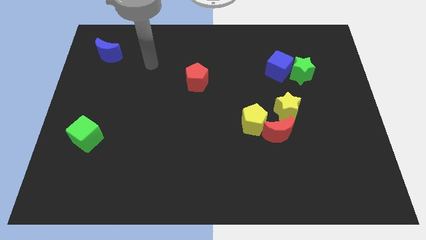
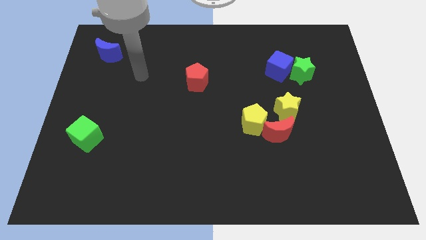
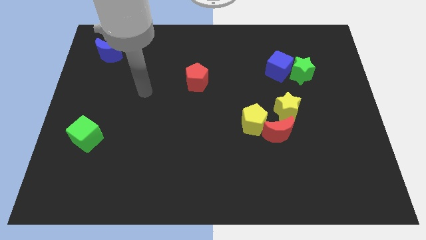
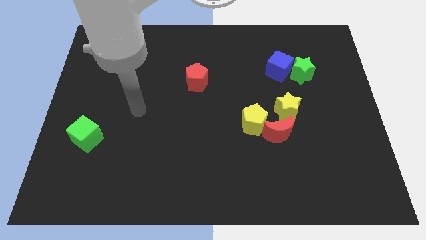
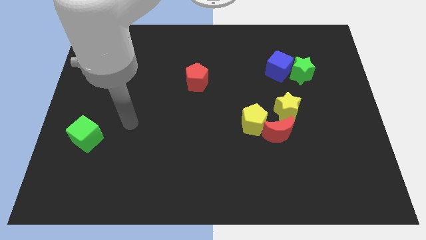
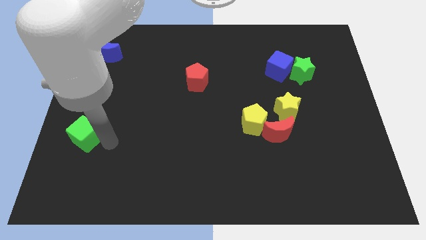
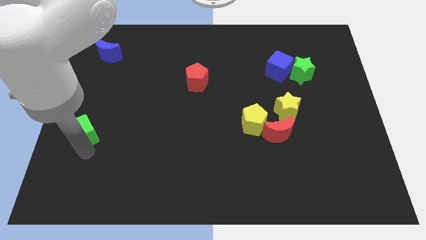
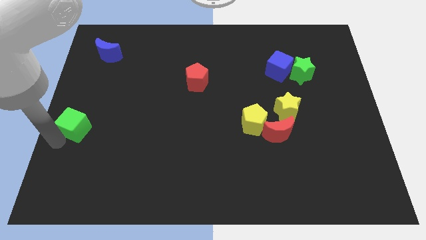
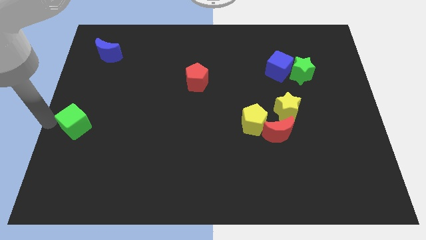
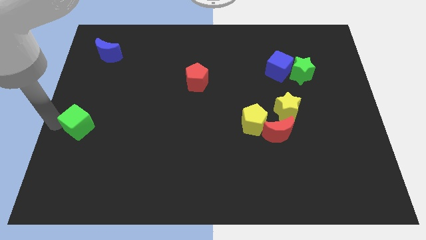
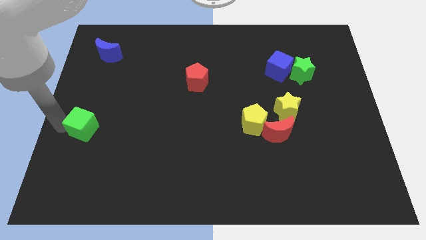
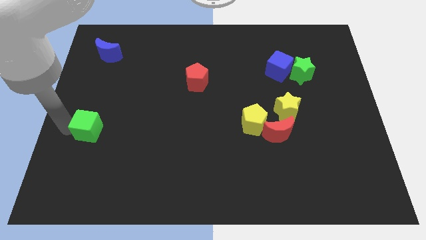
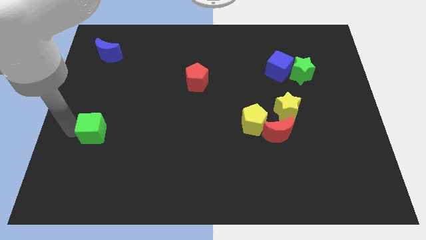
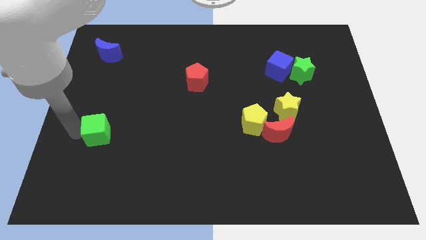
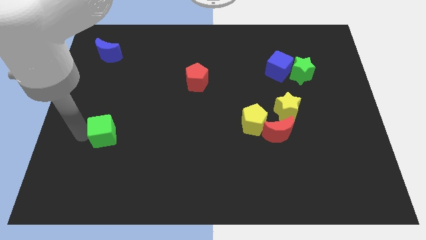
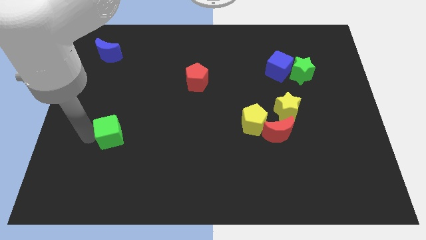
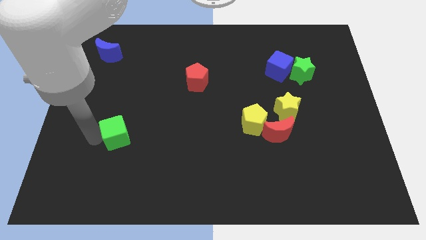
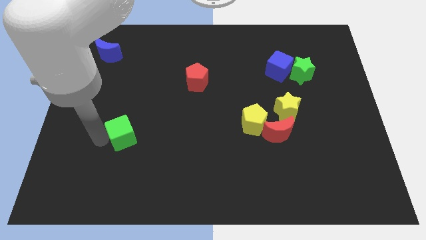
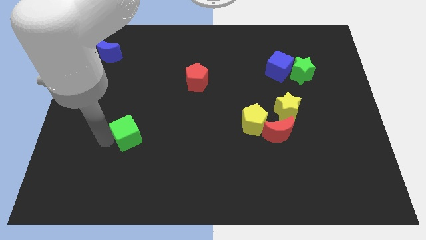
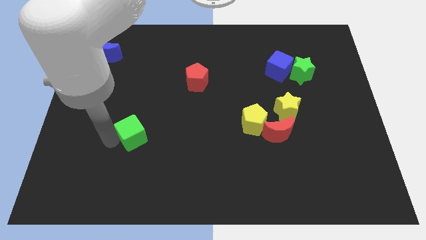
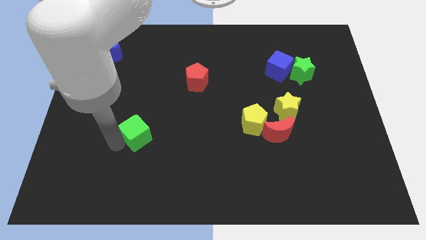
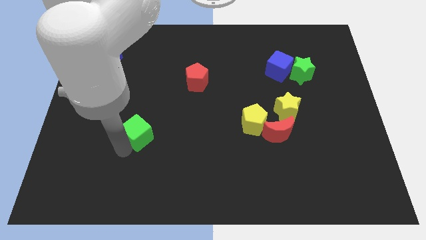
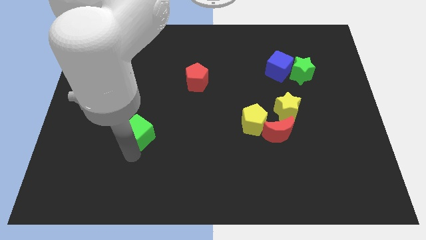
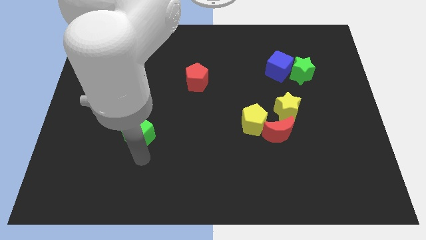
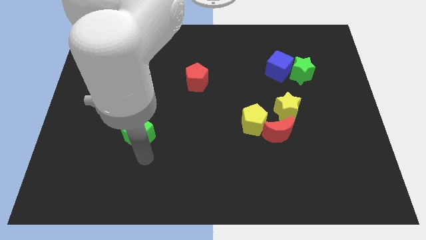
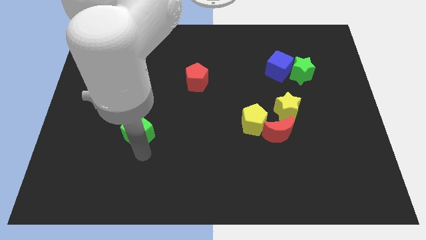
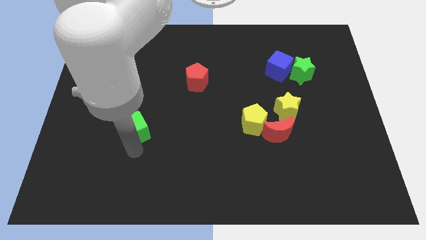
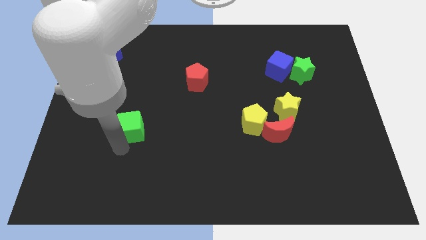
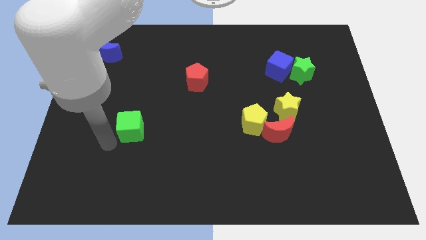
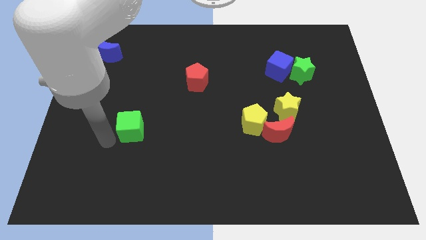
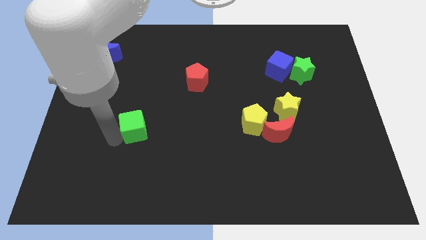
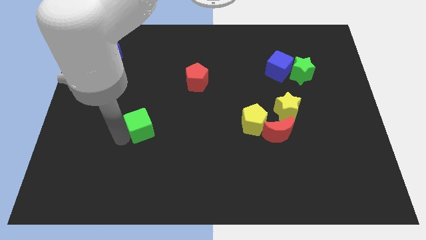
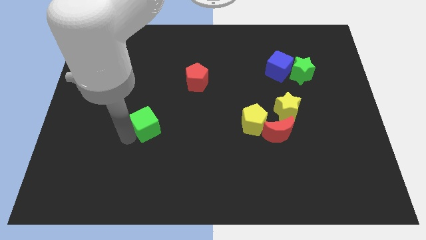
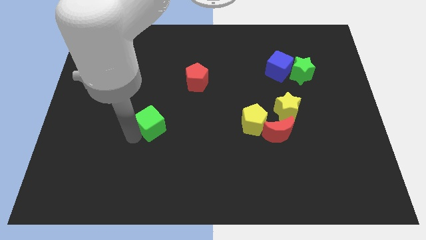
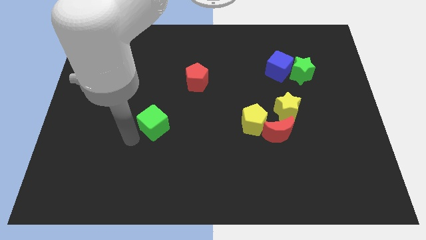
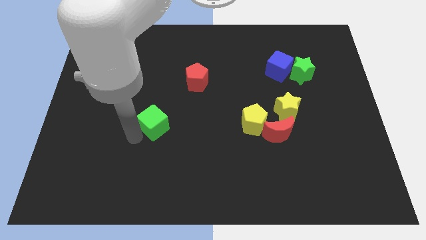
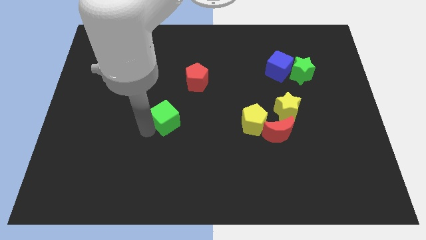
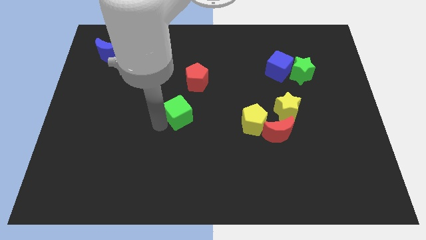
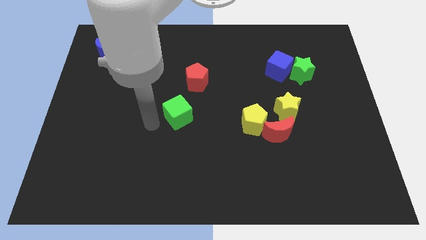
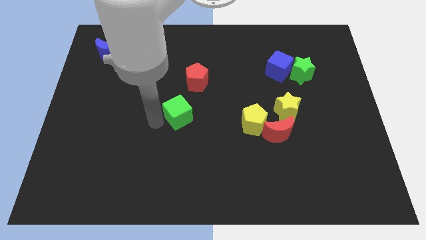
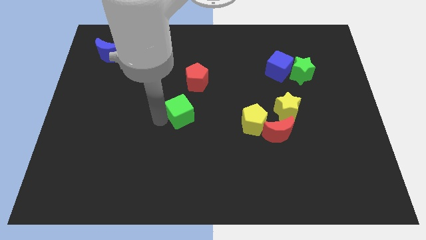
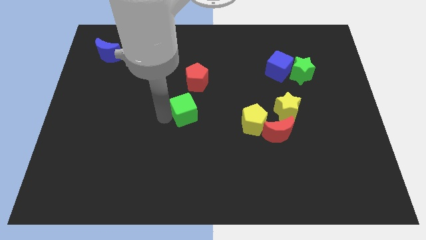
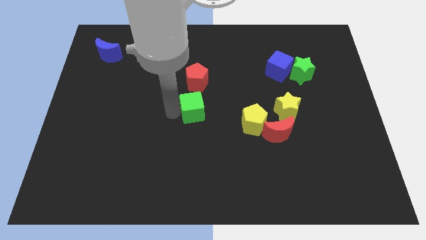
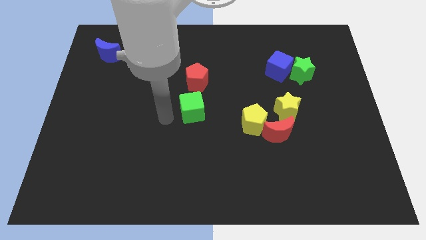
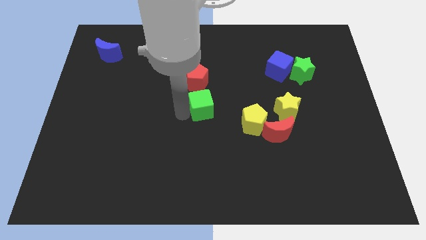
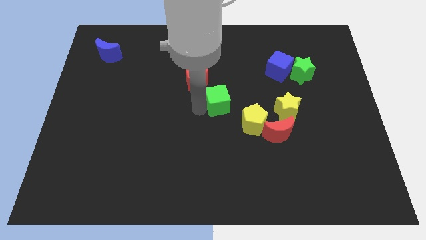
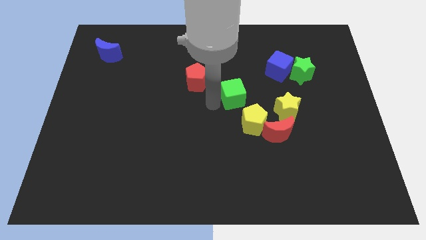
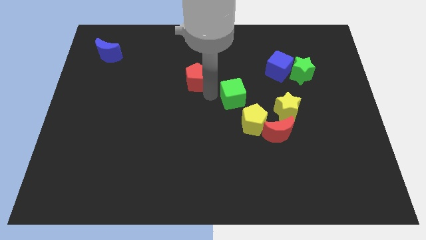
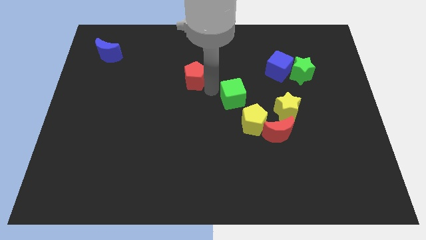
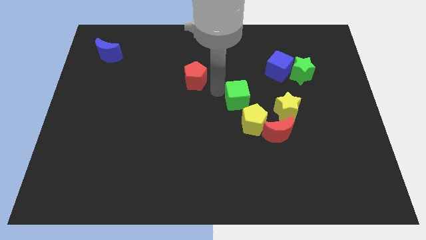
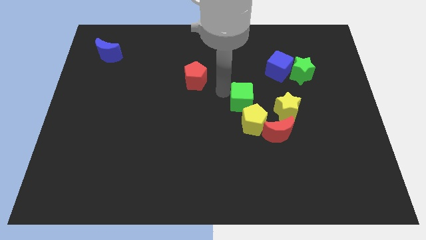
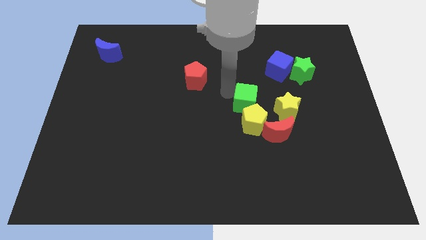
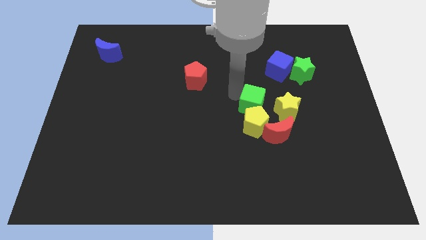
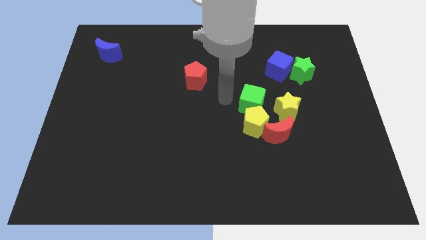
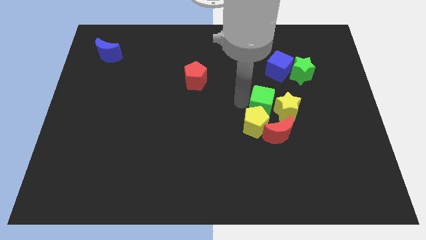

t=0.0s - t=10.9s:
put the green cube towards the yellow star

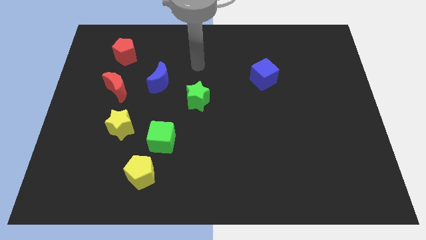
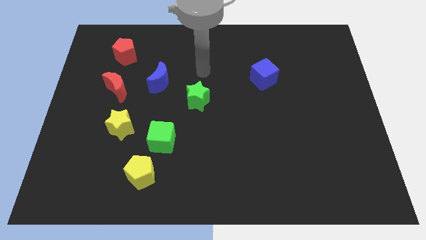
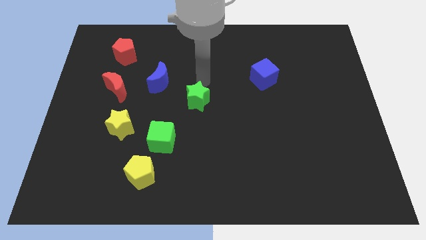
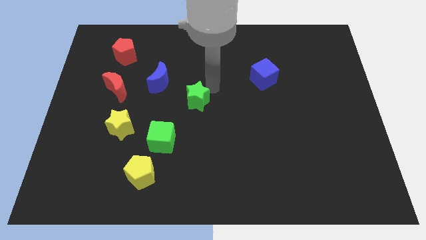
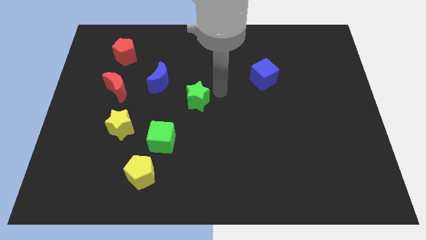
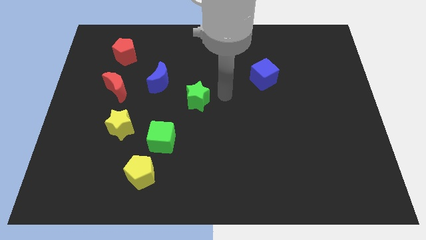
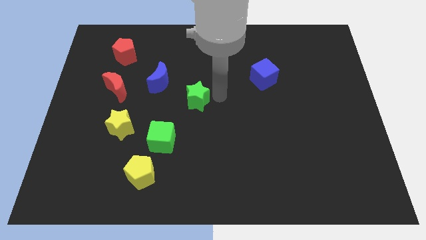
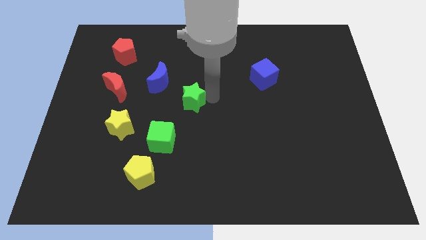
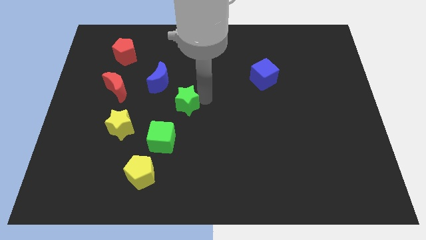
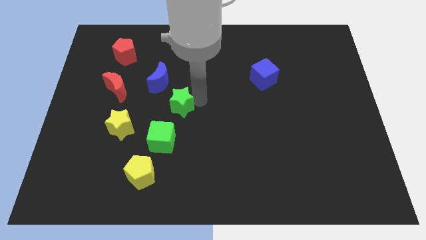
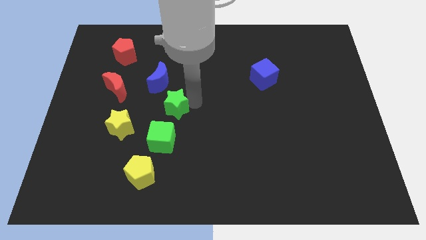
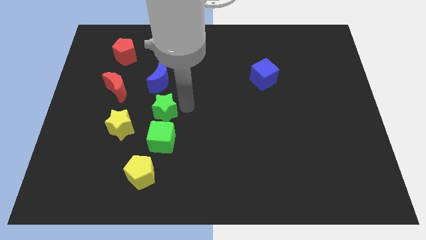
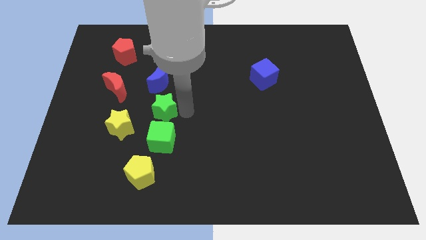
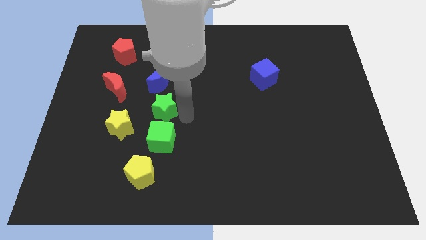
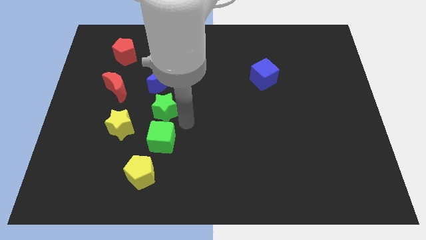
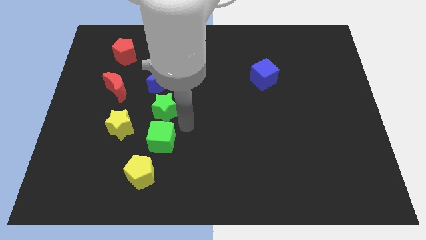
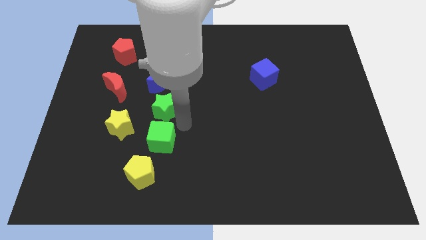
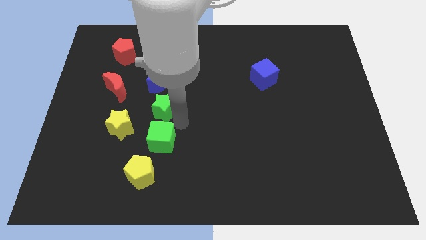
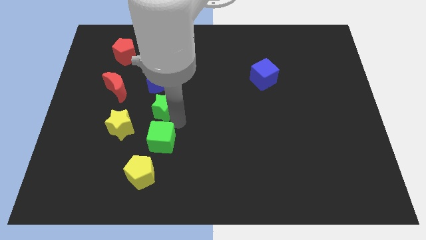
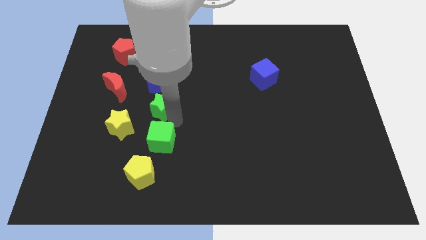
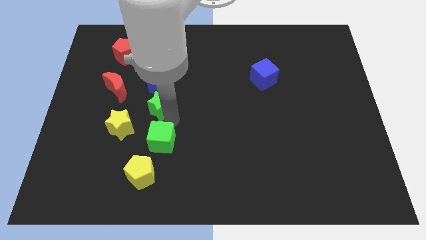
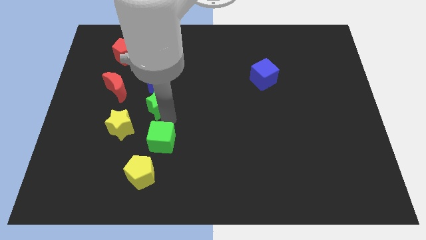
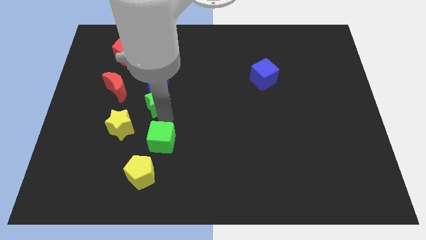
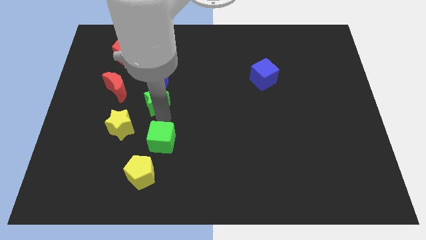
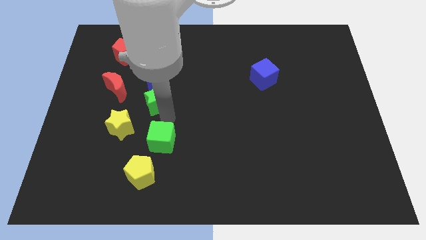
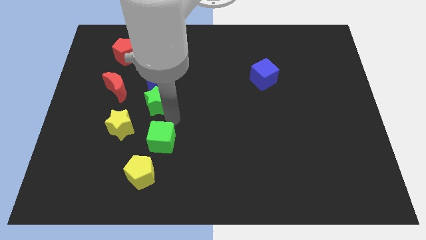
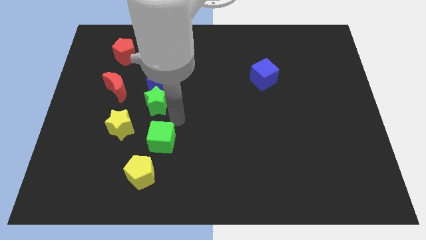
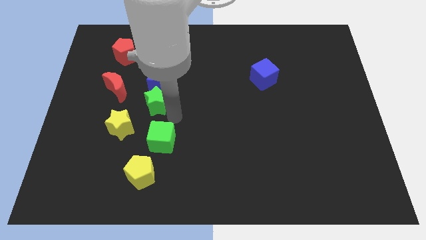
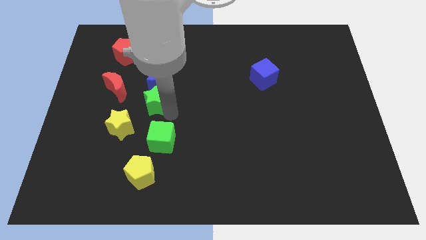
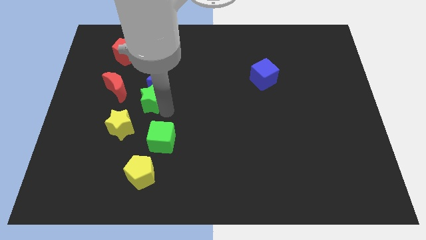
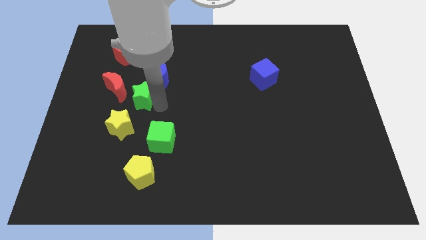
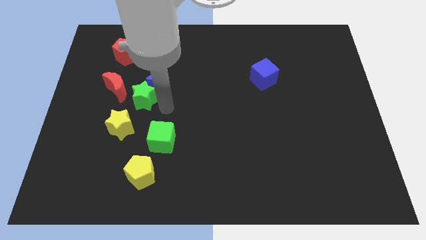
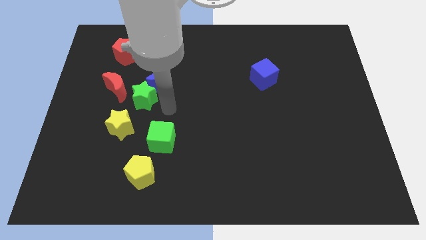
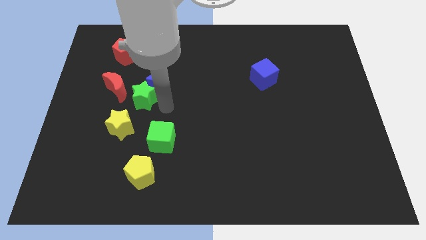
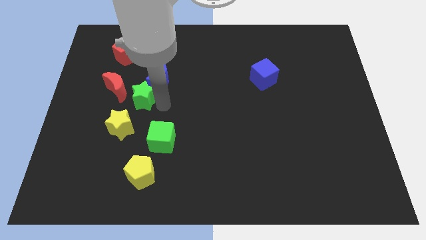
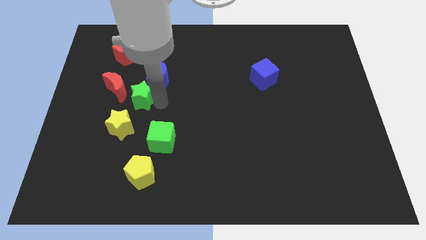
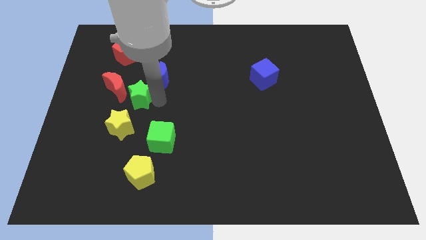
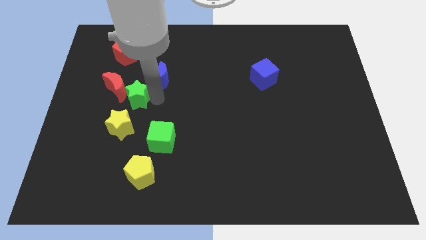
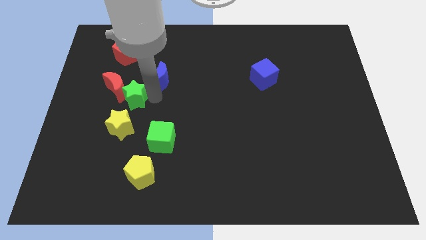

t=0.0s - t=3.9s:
push the green star close to the red moon
